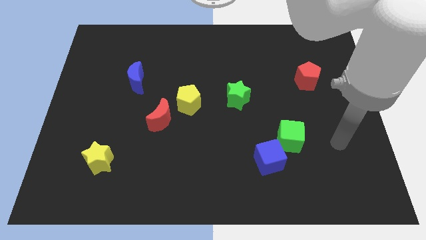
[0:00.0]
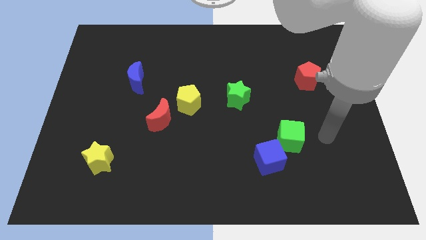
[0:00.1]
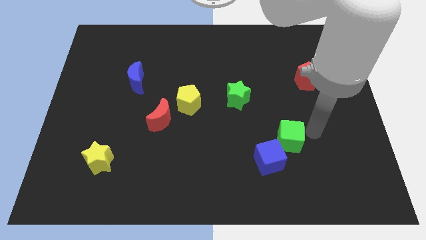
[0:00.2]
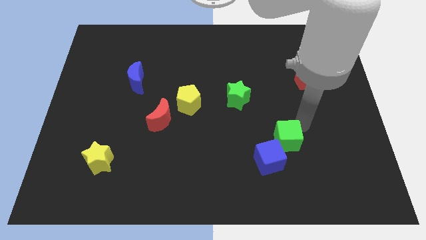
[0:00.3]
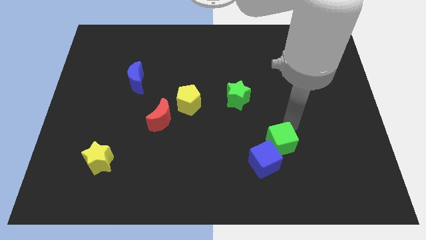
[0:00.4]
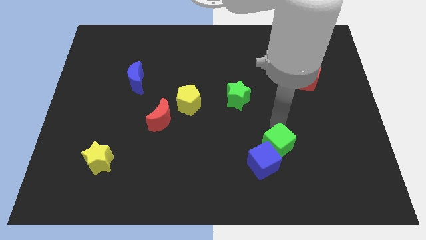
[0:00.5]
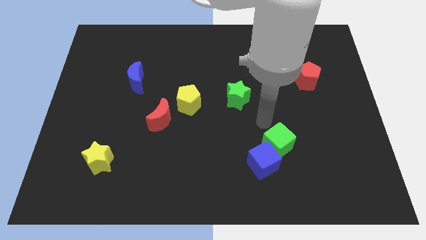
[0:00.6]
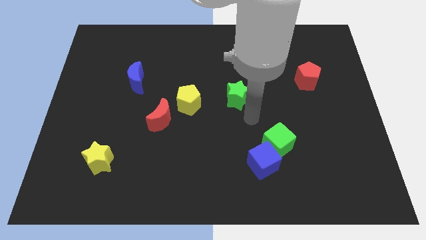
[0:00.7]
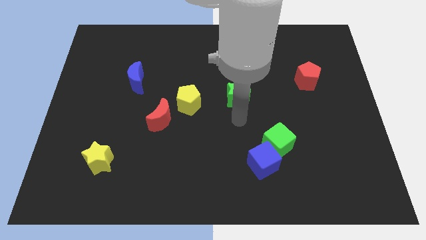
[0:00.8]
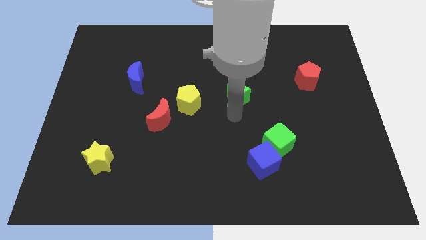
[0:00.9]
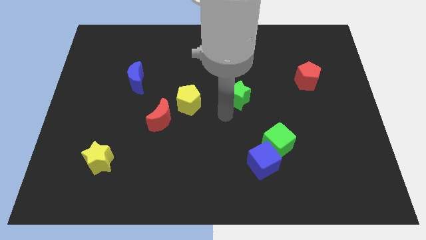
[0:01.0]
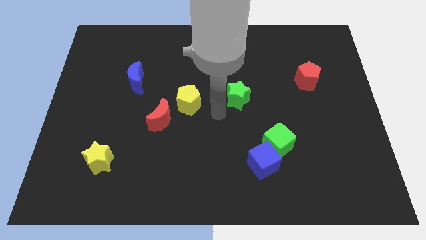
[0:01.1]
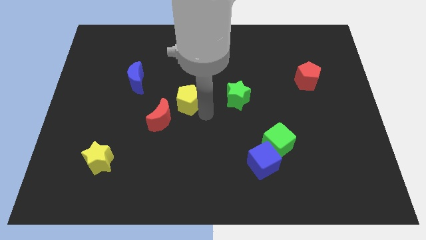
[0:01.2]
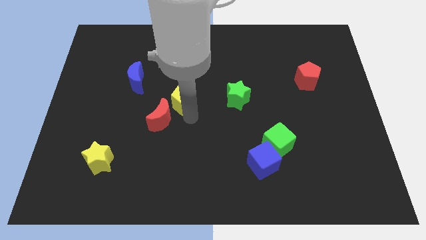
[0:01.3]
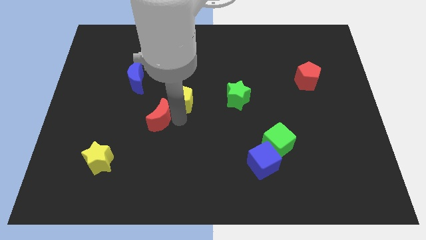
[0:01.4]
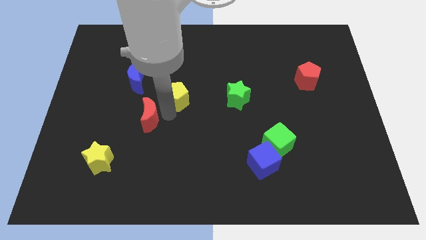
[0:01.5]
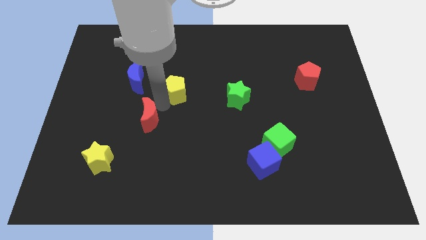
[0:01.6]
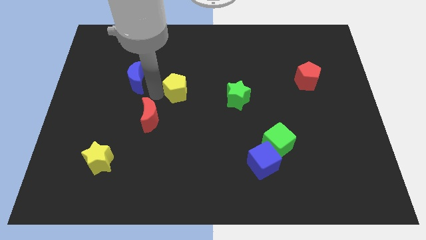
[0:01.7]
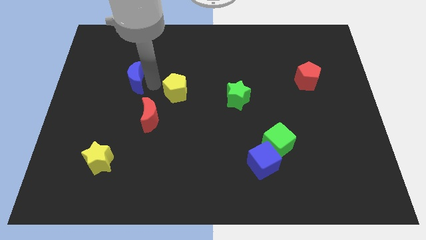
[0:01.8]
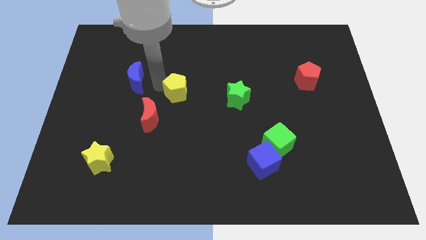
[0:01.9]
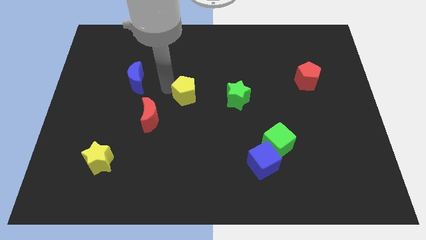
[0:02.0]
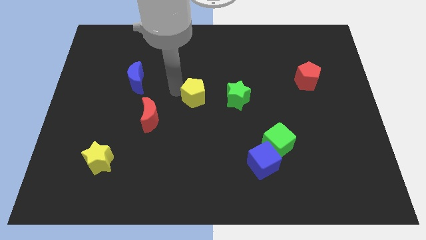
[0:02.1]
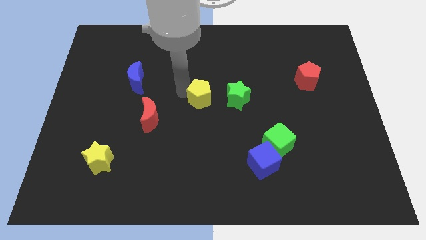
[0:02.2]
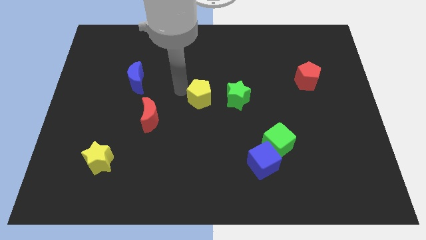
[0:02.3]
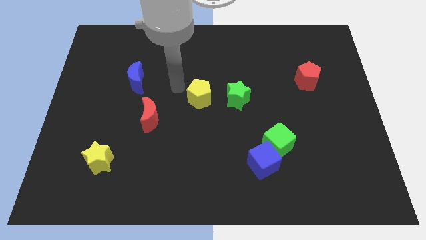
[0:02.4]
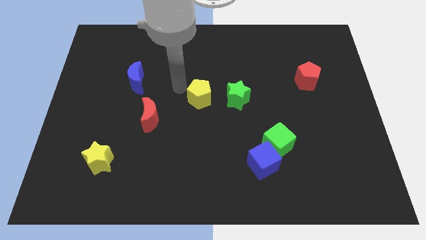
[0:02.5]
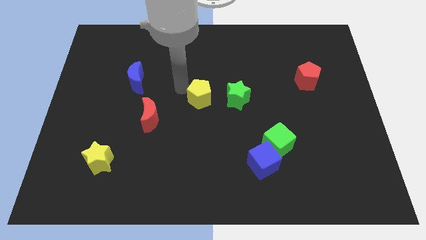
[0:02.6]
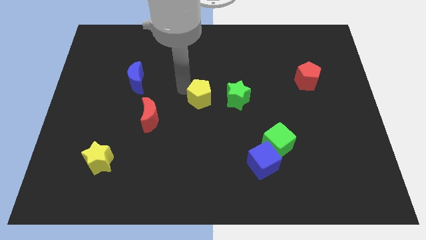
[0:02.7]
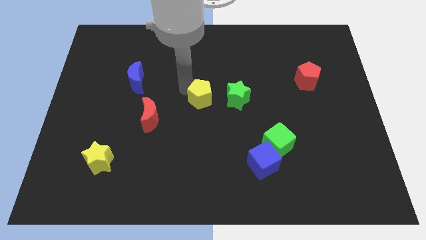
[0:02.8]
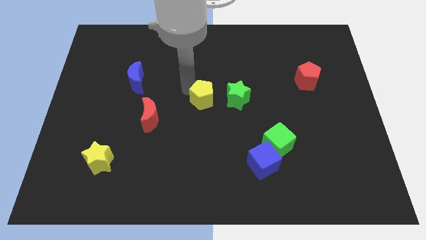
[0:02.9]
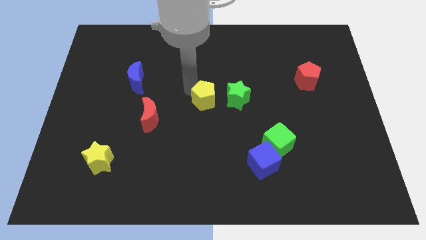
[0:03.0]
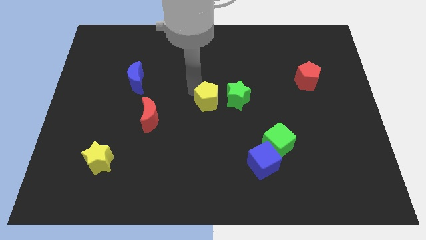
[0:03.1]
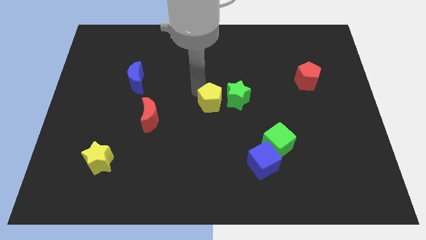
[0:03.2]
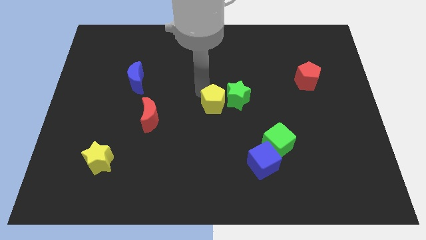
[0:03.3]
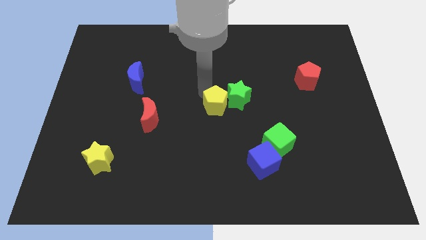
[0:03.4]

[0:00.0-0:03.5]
push the yellow pentagon a little bit to the right

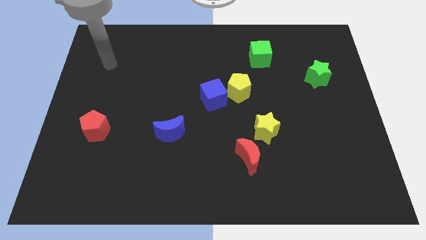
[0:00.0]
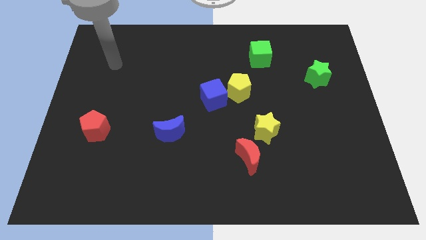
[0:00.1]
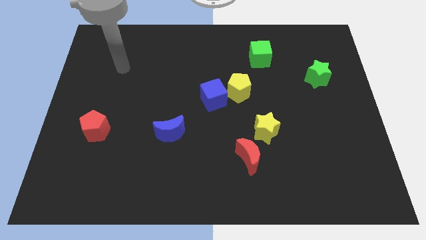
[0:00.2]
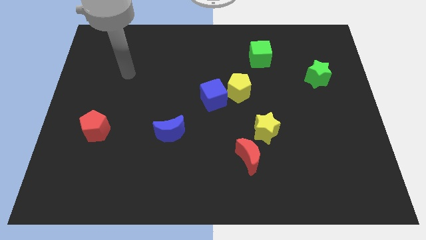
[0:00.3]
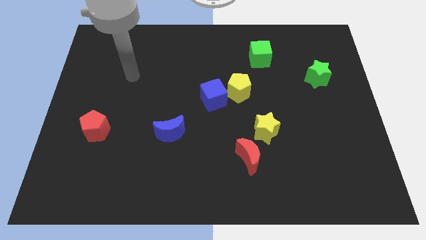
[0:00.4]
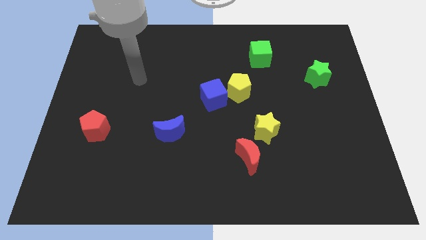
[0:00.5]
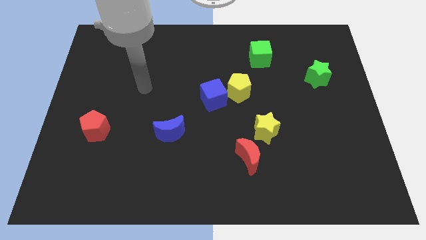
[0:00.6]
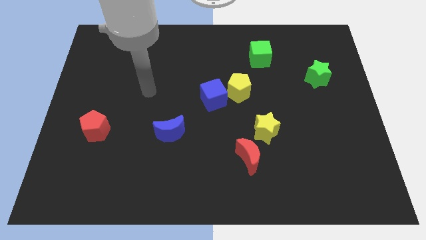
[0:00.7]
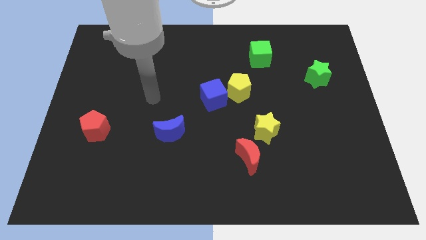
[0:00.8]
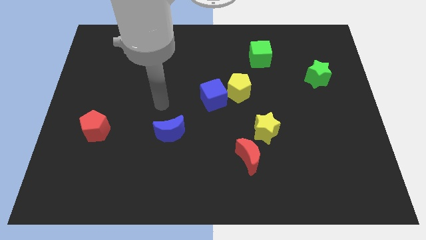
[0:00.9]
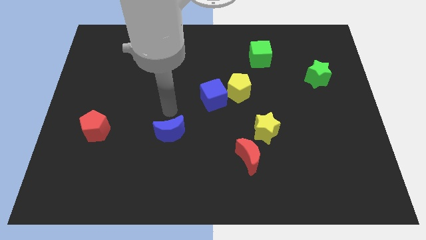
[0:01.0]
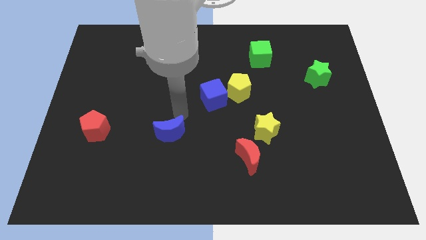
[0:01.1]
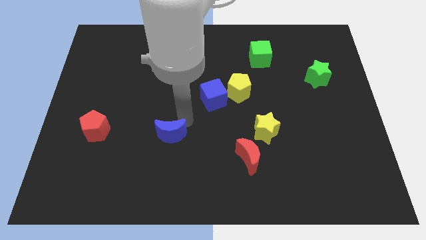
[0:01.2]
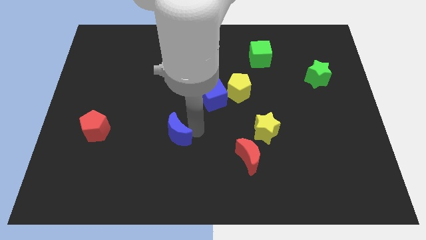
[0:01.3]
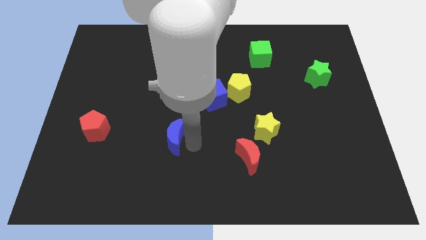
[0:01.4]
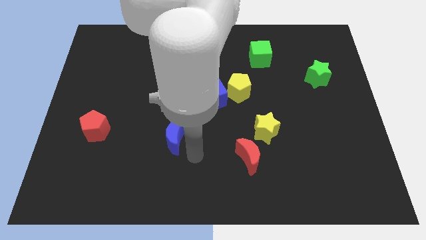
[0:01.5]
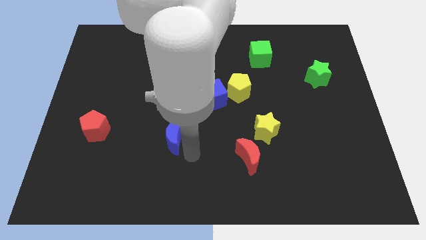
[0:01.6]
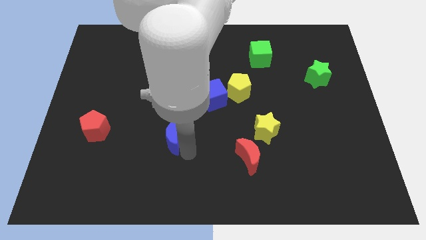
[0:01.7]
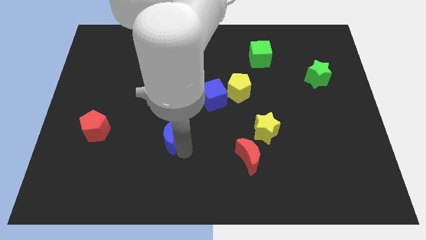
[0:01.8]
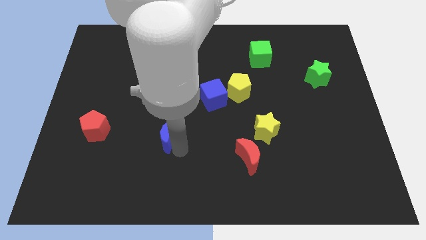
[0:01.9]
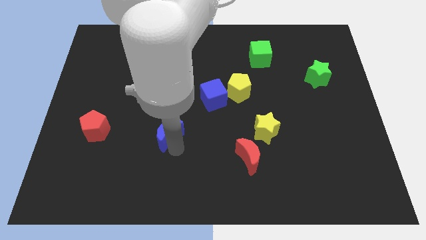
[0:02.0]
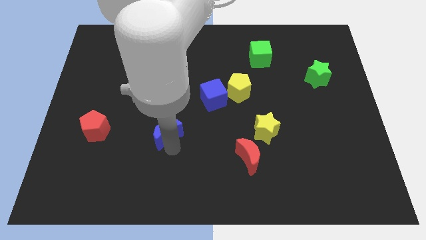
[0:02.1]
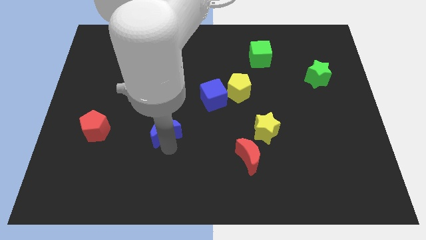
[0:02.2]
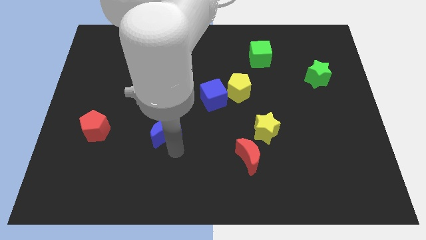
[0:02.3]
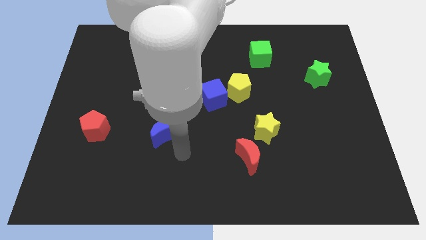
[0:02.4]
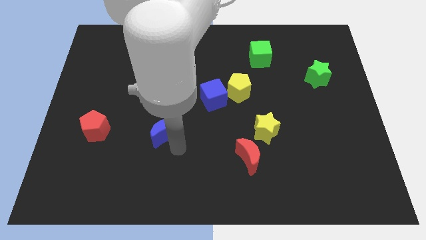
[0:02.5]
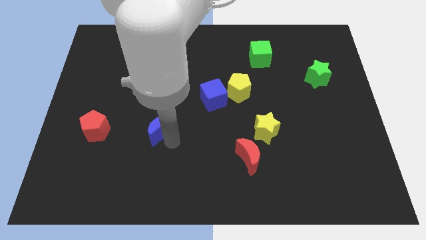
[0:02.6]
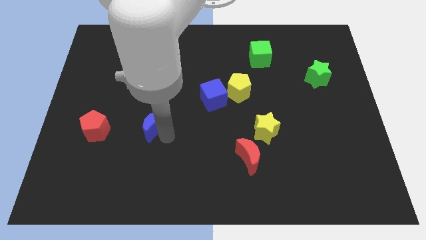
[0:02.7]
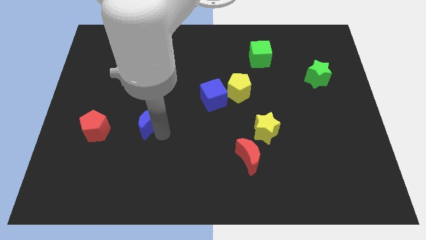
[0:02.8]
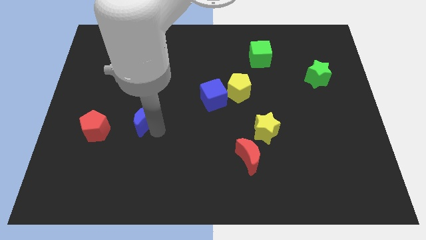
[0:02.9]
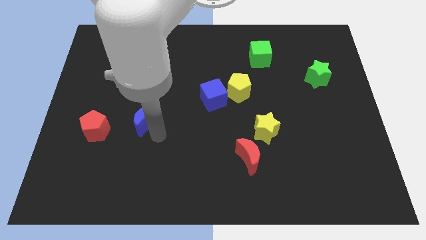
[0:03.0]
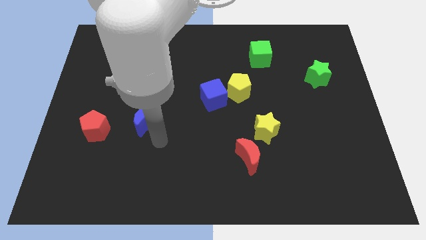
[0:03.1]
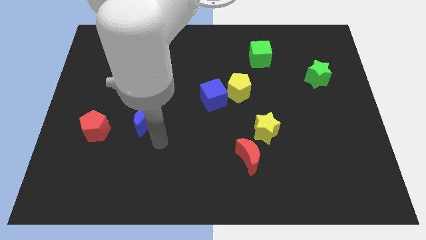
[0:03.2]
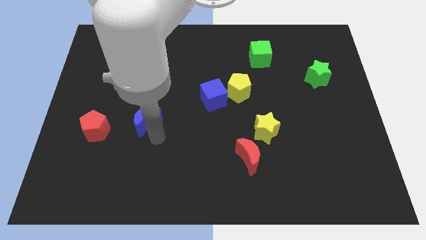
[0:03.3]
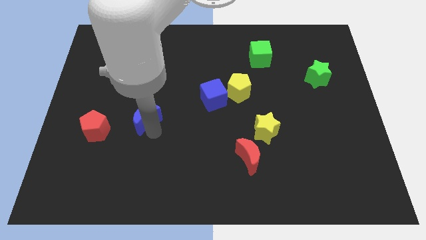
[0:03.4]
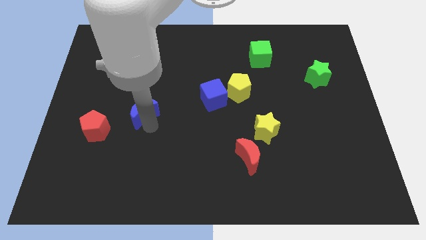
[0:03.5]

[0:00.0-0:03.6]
slightly move the blue moon diagonally upwards and to the left

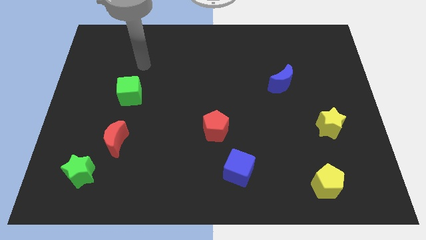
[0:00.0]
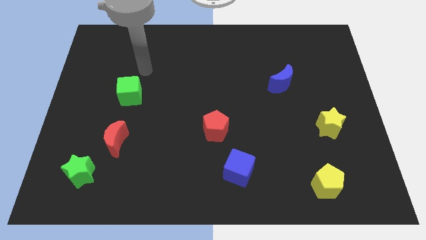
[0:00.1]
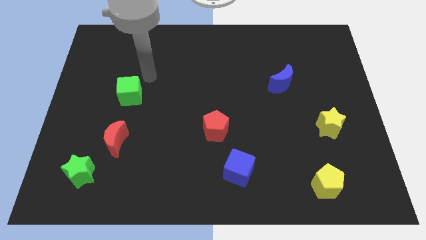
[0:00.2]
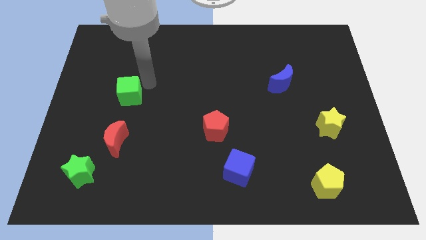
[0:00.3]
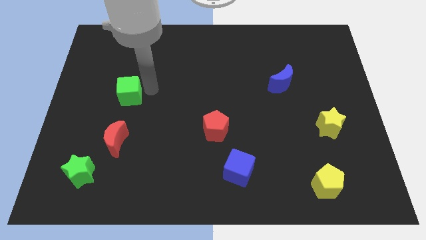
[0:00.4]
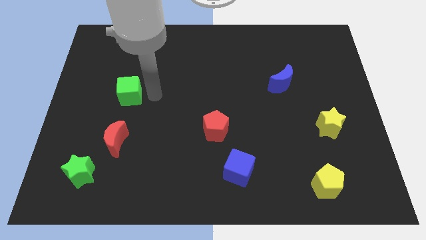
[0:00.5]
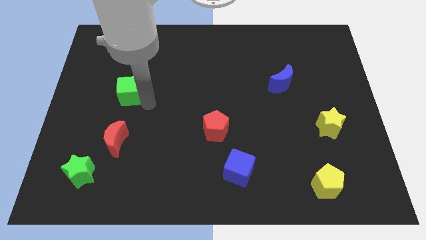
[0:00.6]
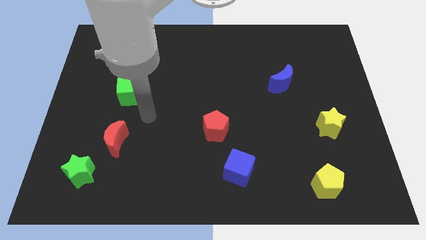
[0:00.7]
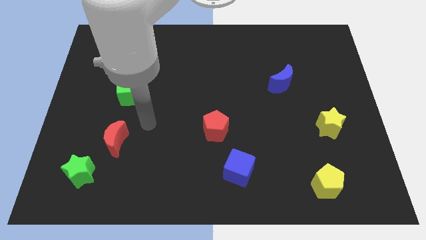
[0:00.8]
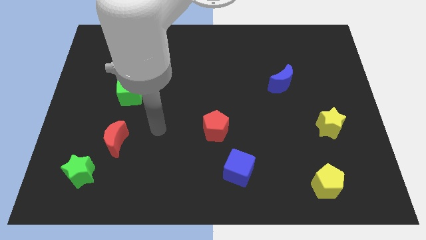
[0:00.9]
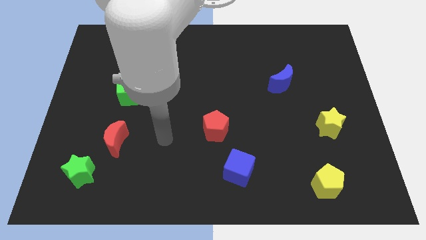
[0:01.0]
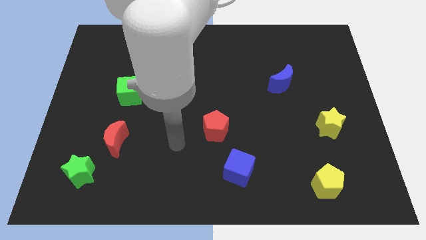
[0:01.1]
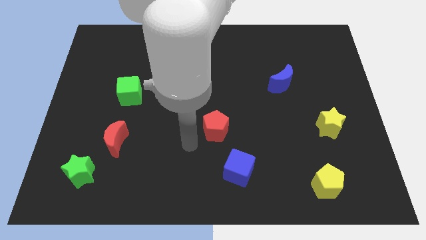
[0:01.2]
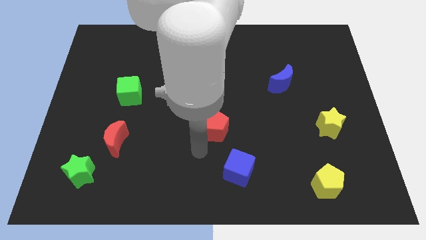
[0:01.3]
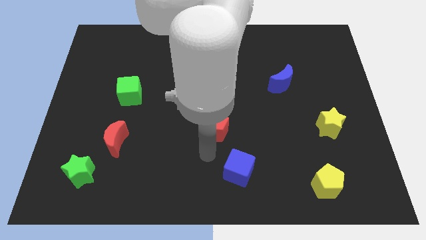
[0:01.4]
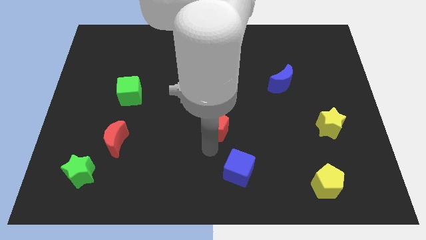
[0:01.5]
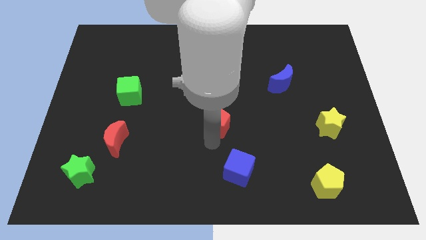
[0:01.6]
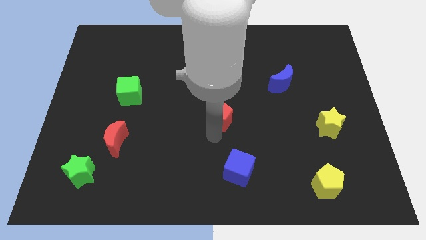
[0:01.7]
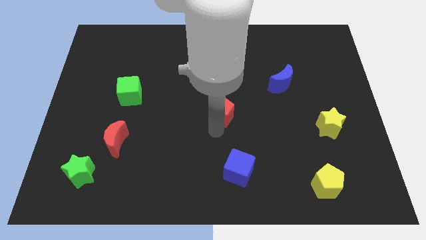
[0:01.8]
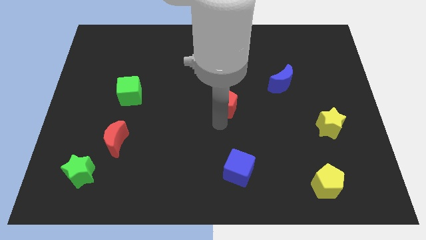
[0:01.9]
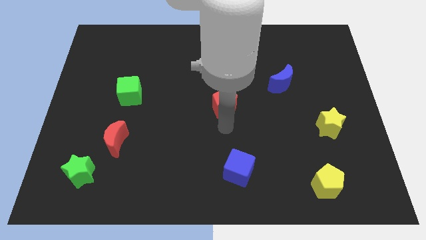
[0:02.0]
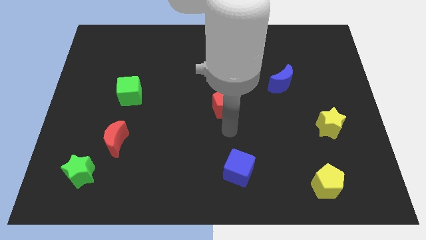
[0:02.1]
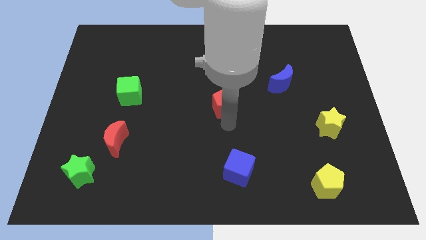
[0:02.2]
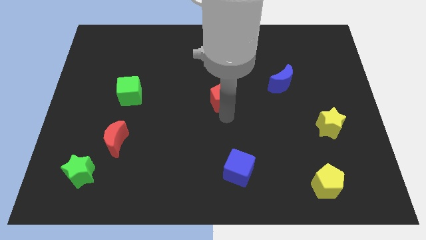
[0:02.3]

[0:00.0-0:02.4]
move the red pentagon a bit upwards
